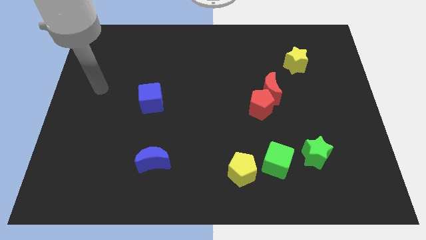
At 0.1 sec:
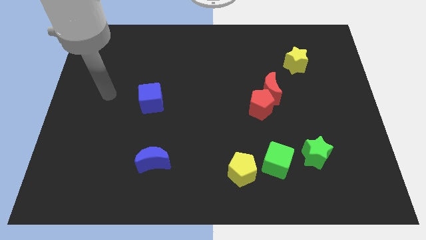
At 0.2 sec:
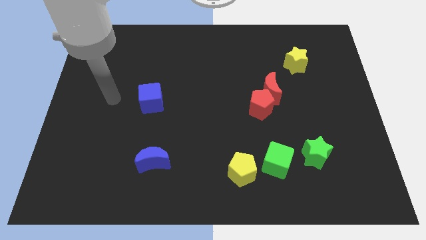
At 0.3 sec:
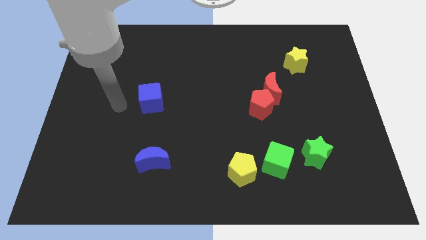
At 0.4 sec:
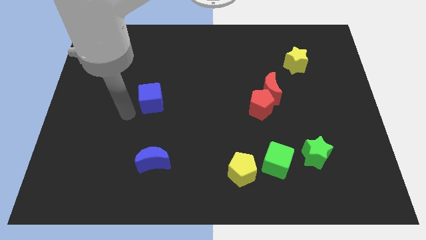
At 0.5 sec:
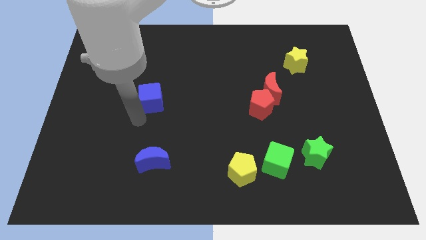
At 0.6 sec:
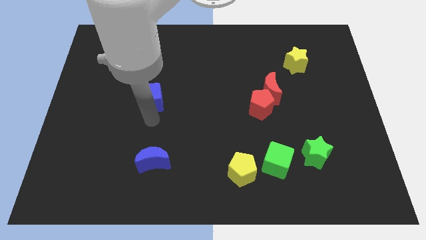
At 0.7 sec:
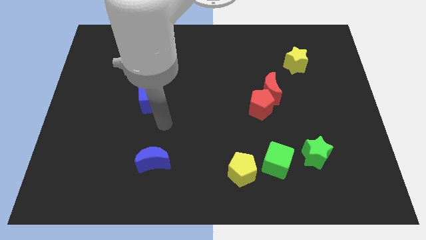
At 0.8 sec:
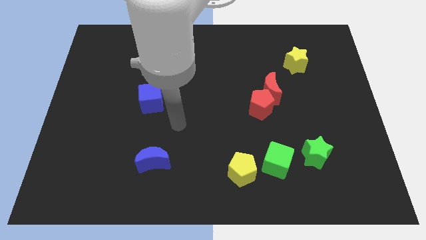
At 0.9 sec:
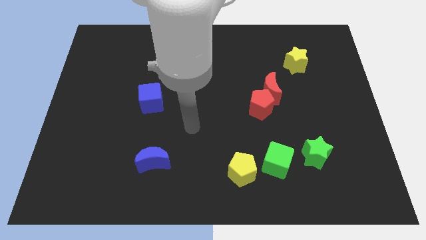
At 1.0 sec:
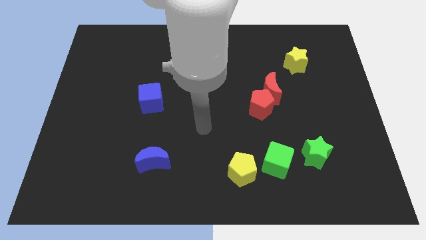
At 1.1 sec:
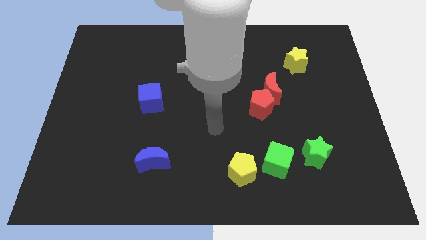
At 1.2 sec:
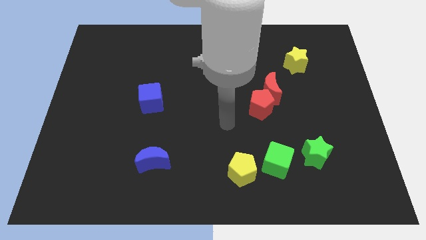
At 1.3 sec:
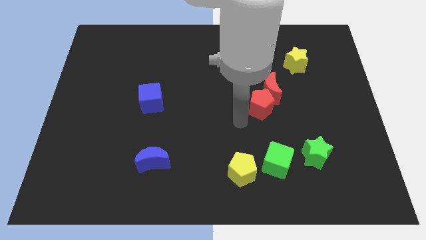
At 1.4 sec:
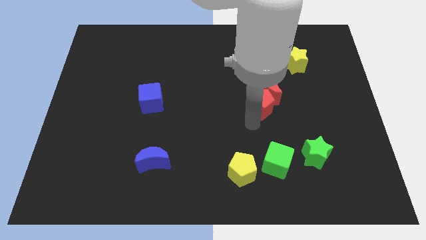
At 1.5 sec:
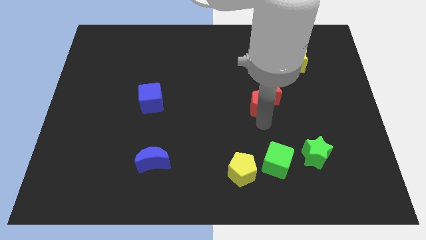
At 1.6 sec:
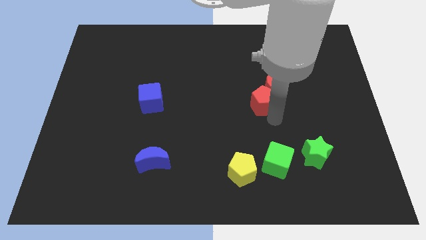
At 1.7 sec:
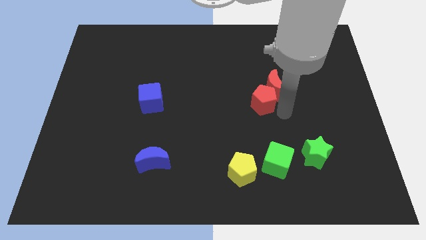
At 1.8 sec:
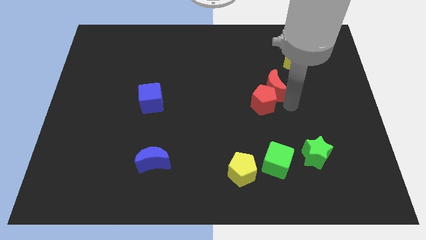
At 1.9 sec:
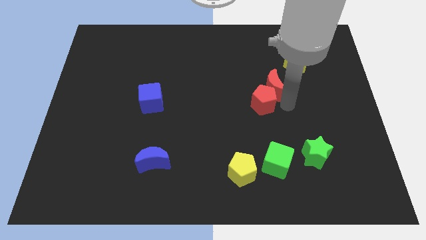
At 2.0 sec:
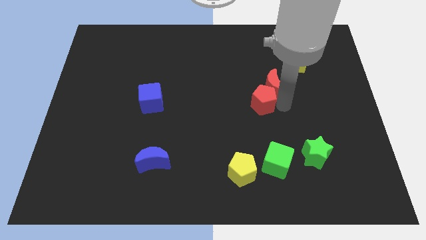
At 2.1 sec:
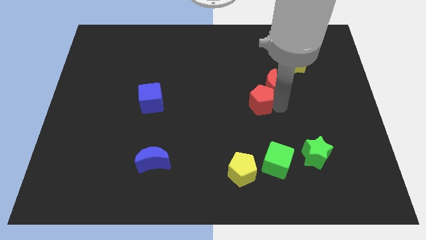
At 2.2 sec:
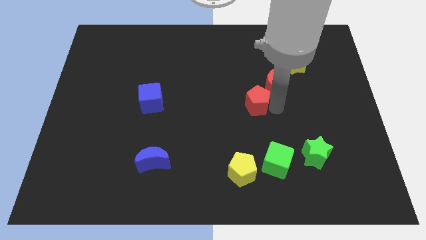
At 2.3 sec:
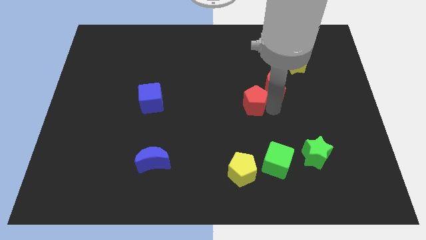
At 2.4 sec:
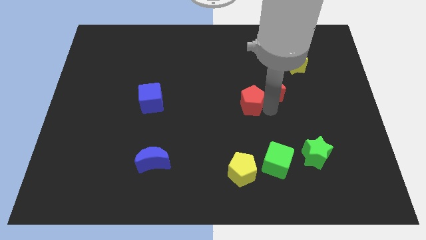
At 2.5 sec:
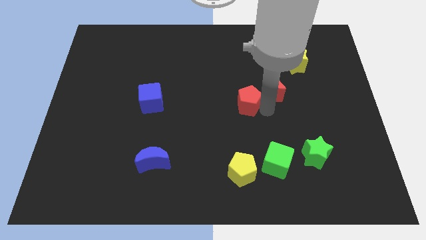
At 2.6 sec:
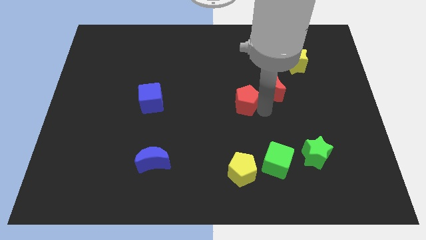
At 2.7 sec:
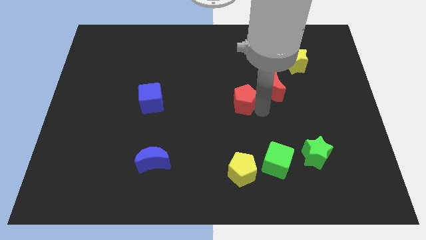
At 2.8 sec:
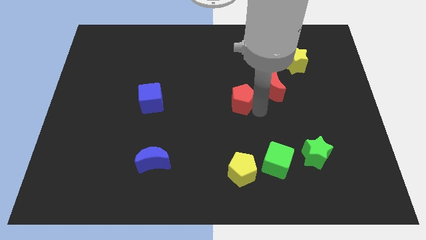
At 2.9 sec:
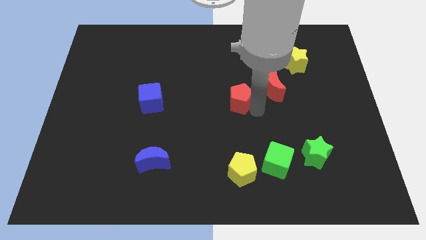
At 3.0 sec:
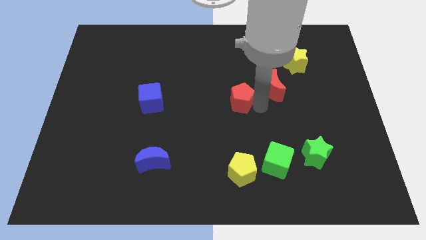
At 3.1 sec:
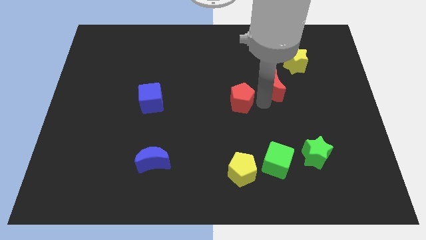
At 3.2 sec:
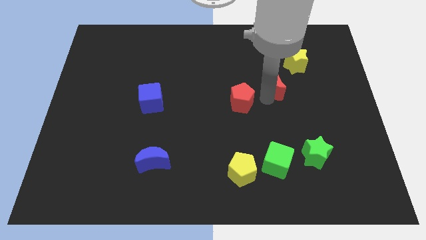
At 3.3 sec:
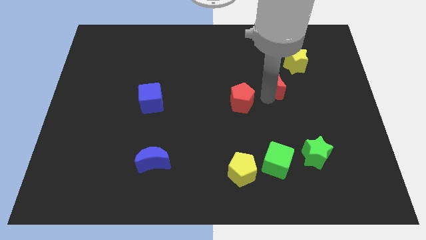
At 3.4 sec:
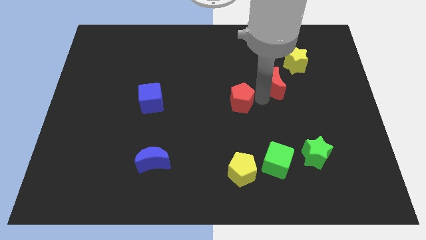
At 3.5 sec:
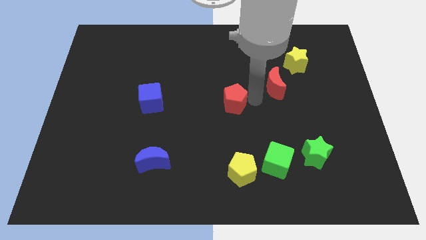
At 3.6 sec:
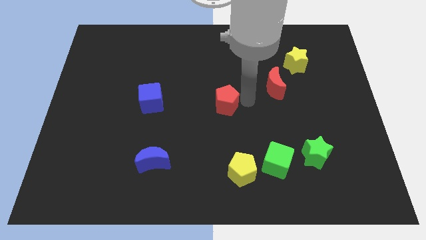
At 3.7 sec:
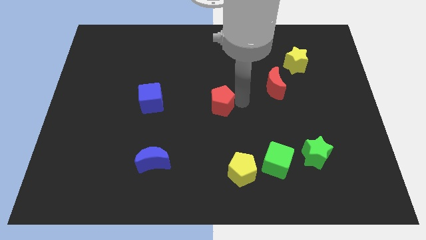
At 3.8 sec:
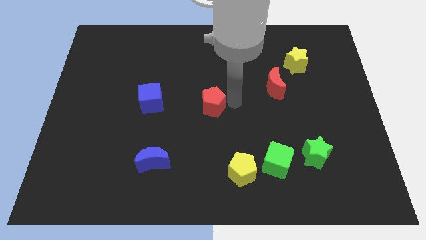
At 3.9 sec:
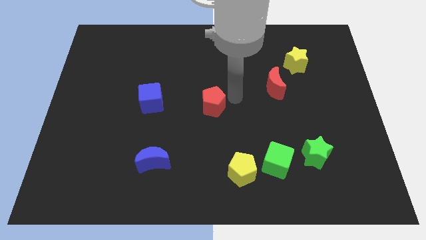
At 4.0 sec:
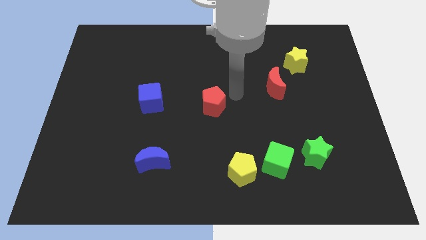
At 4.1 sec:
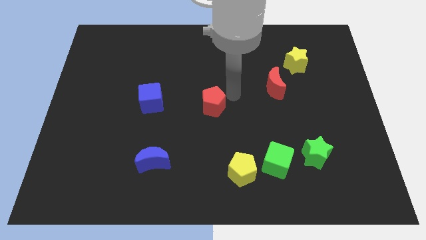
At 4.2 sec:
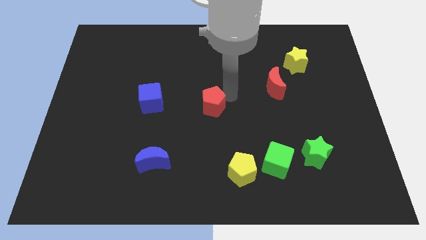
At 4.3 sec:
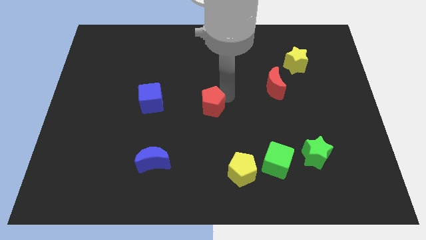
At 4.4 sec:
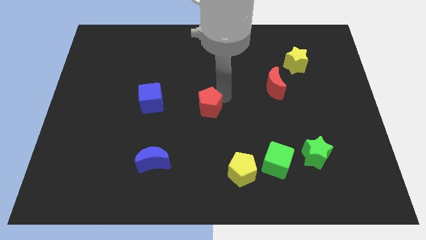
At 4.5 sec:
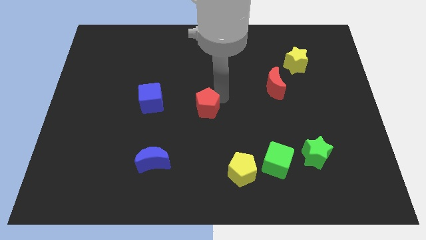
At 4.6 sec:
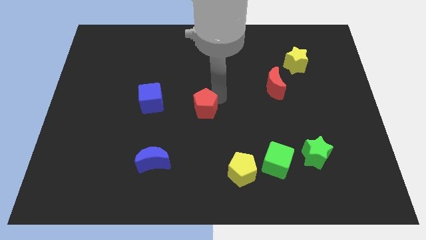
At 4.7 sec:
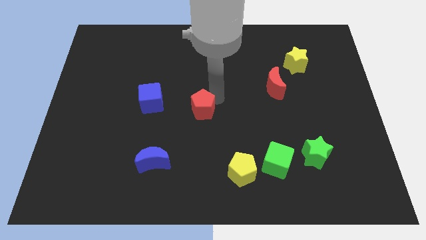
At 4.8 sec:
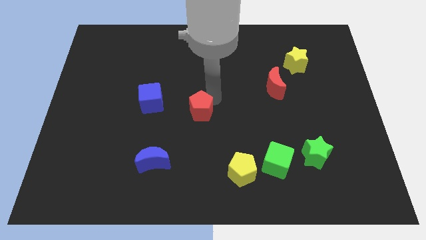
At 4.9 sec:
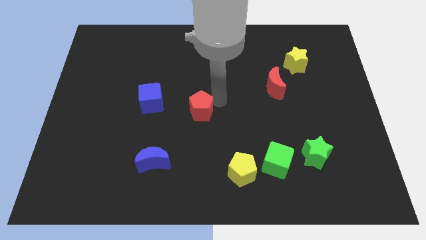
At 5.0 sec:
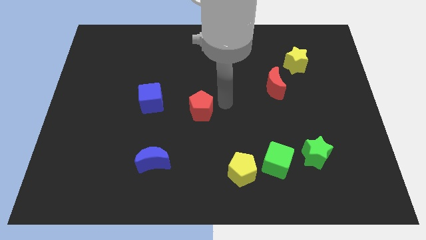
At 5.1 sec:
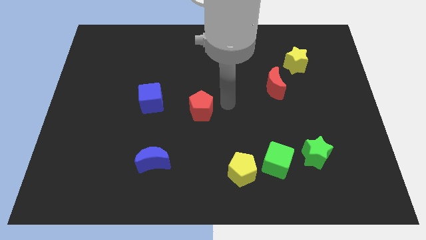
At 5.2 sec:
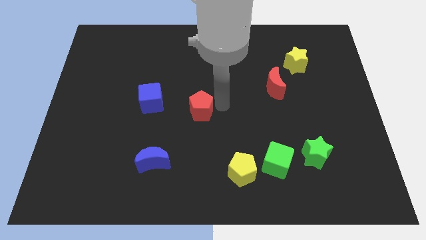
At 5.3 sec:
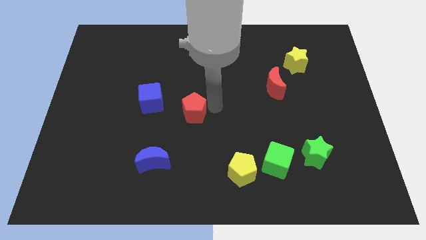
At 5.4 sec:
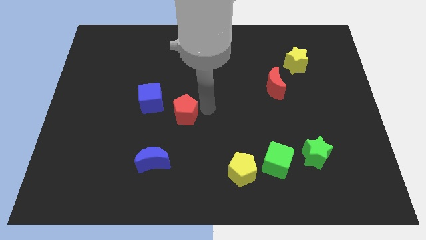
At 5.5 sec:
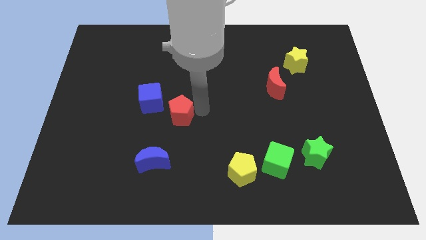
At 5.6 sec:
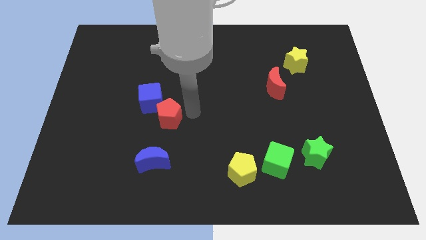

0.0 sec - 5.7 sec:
move the red pentagon to the left

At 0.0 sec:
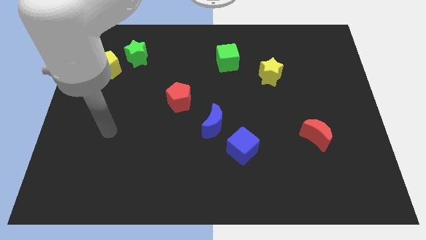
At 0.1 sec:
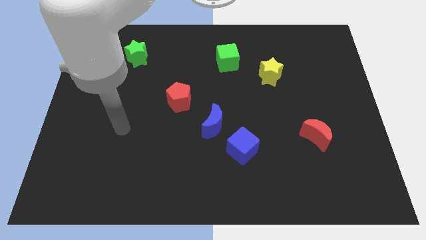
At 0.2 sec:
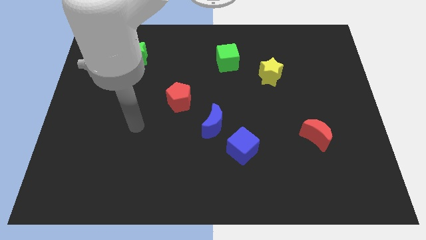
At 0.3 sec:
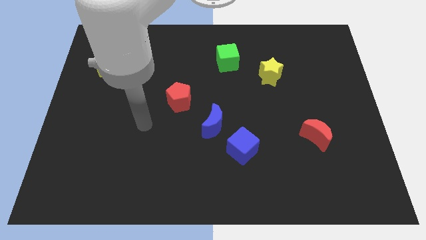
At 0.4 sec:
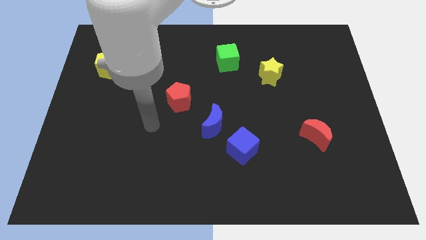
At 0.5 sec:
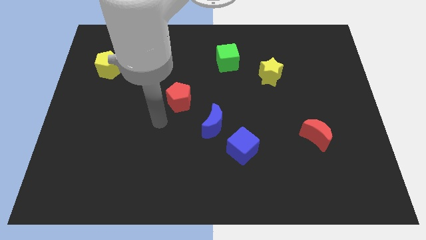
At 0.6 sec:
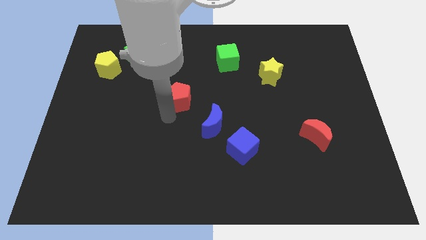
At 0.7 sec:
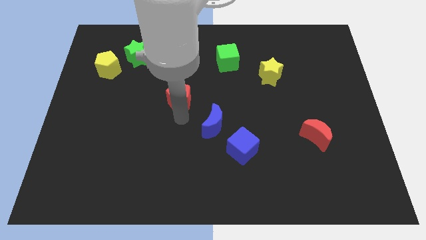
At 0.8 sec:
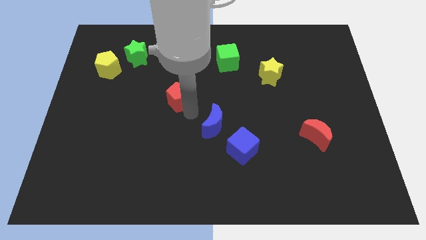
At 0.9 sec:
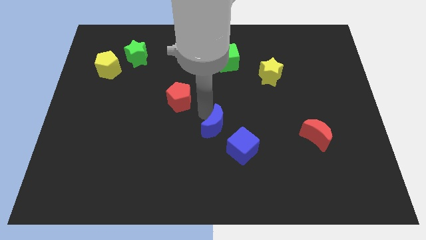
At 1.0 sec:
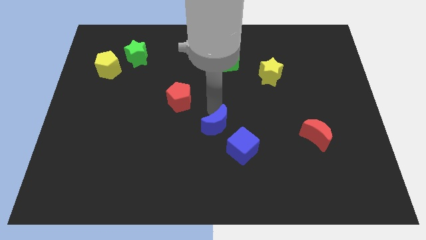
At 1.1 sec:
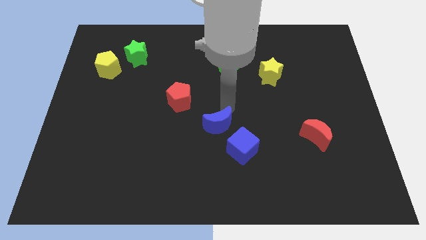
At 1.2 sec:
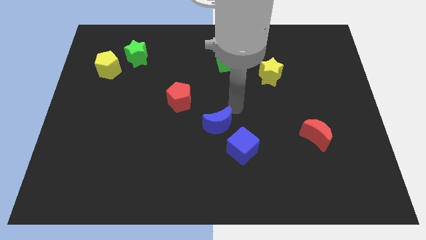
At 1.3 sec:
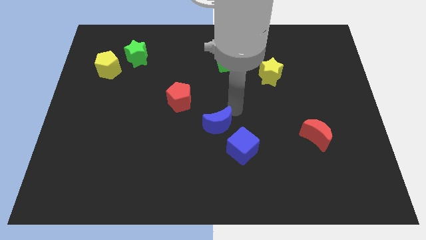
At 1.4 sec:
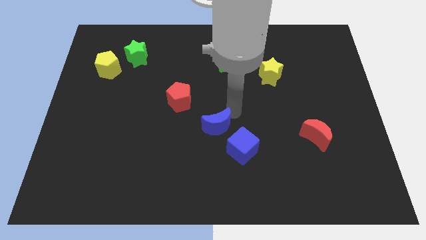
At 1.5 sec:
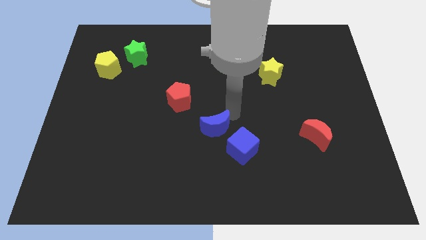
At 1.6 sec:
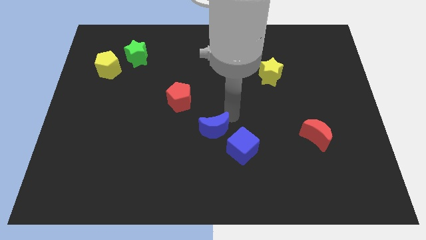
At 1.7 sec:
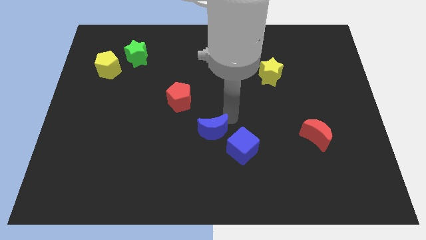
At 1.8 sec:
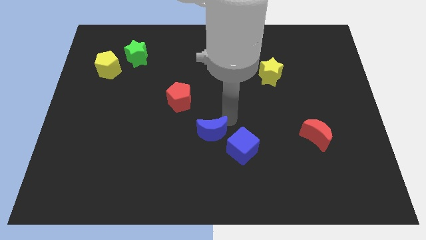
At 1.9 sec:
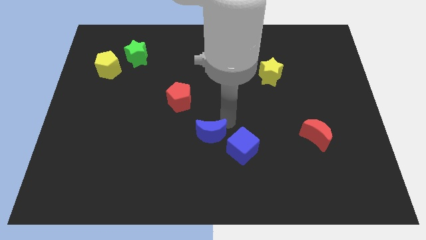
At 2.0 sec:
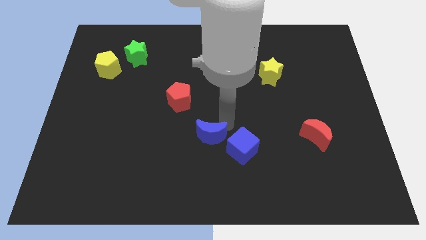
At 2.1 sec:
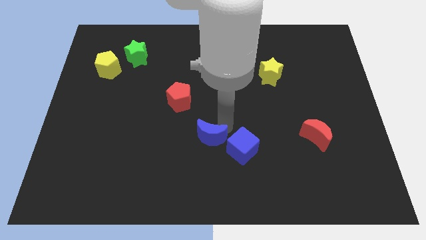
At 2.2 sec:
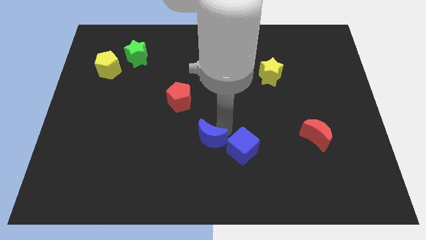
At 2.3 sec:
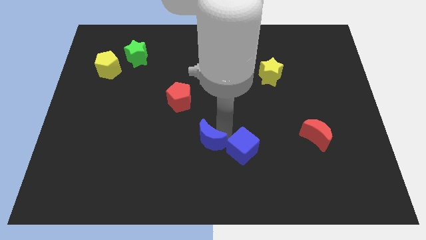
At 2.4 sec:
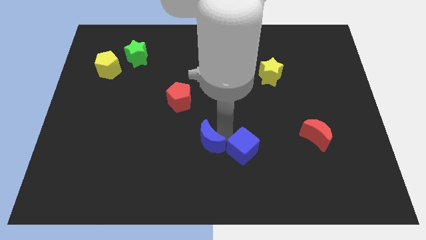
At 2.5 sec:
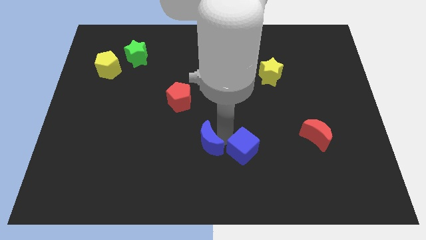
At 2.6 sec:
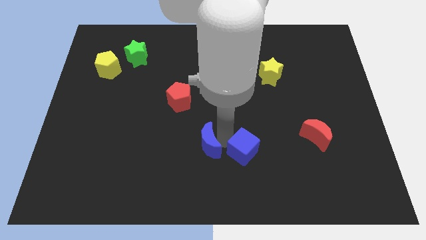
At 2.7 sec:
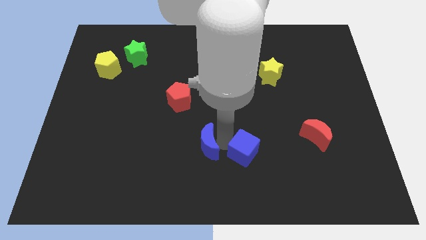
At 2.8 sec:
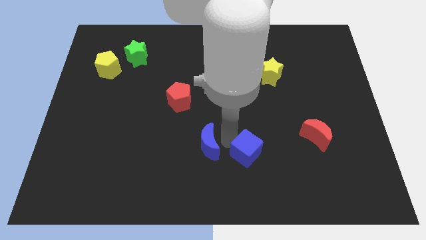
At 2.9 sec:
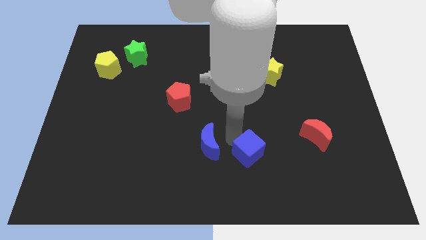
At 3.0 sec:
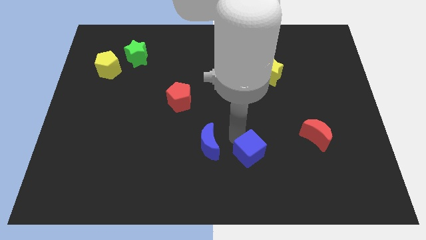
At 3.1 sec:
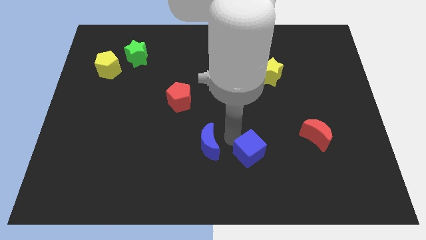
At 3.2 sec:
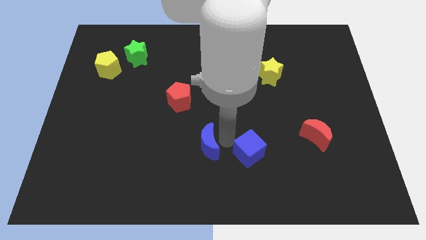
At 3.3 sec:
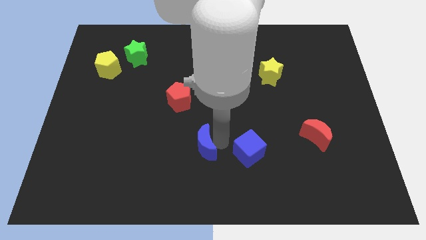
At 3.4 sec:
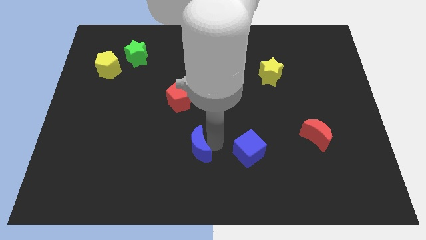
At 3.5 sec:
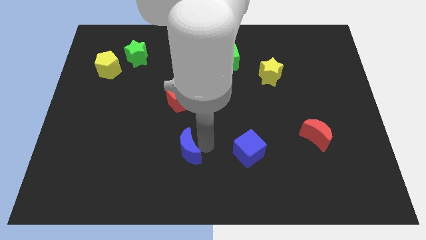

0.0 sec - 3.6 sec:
slightly move the blue moon downwards and left
